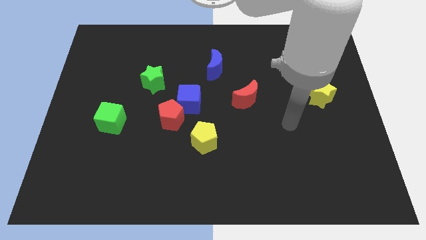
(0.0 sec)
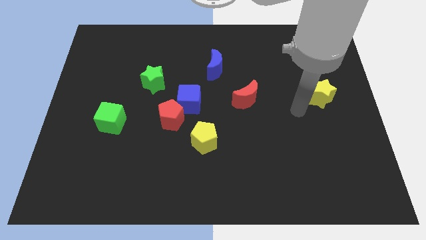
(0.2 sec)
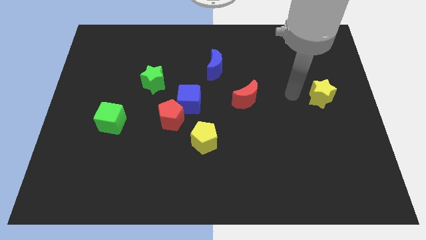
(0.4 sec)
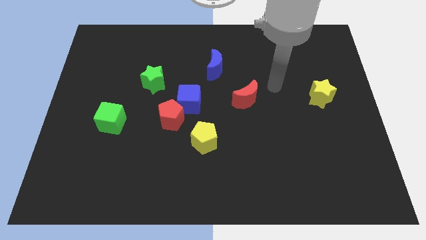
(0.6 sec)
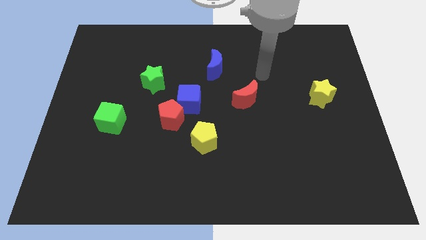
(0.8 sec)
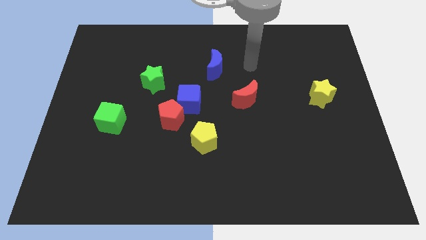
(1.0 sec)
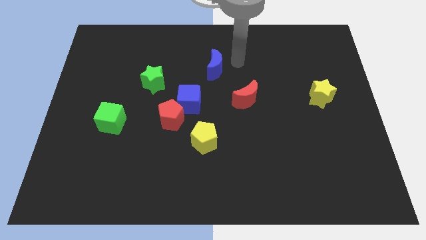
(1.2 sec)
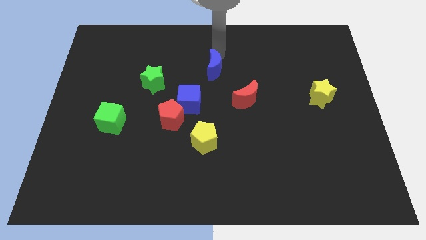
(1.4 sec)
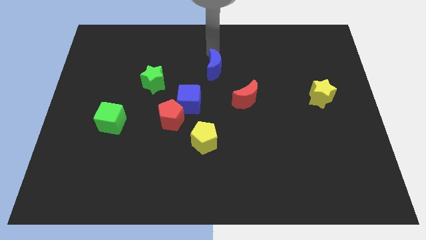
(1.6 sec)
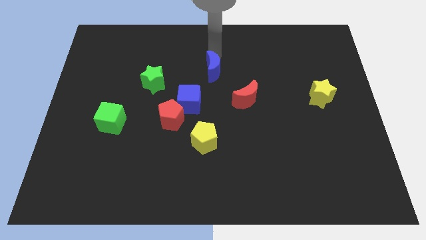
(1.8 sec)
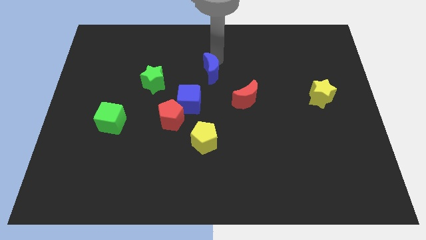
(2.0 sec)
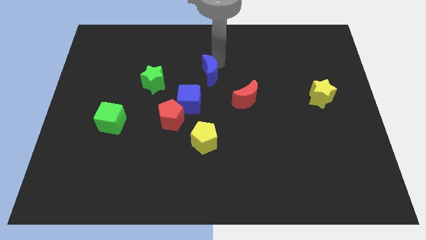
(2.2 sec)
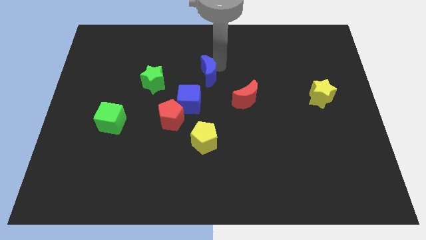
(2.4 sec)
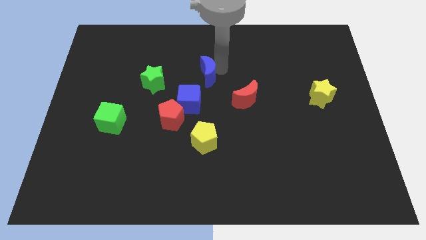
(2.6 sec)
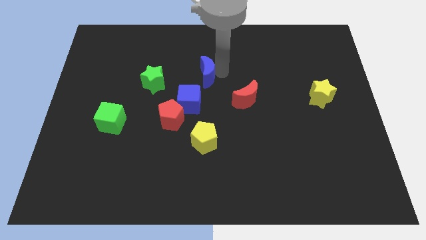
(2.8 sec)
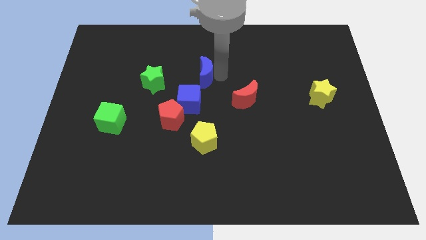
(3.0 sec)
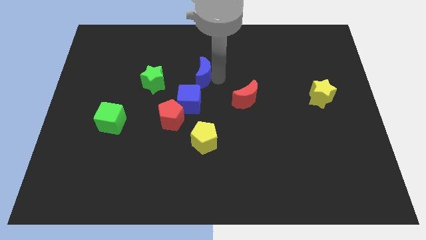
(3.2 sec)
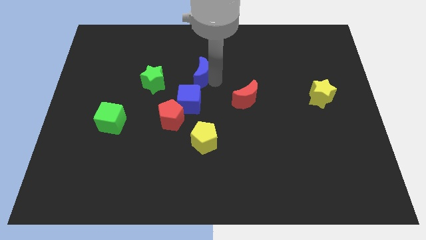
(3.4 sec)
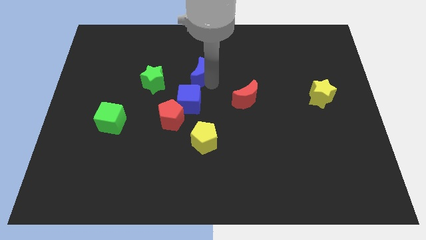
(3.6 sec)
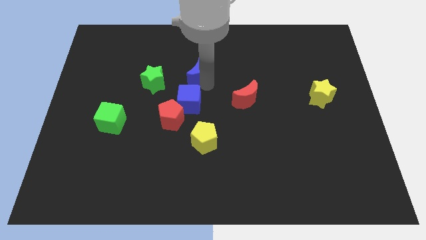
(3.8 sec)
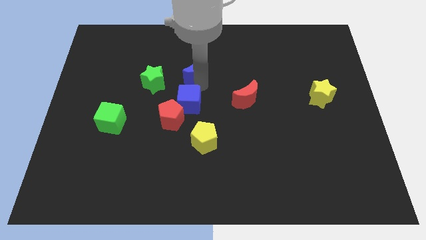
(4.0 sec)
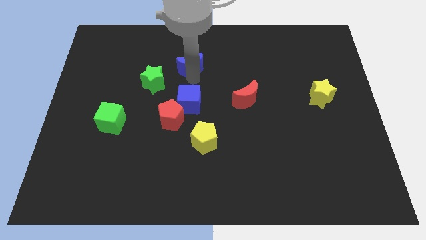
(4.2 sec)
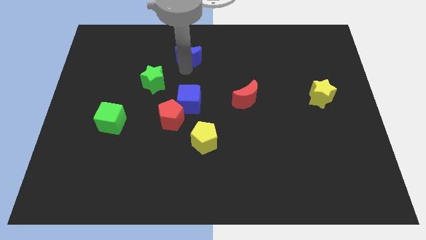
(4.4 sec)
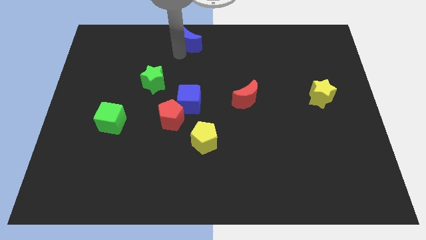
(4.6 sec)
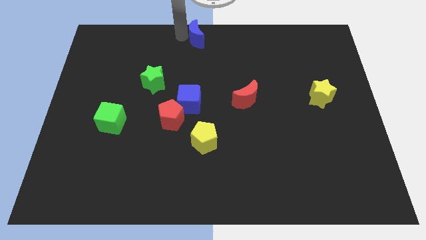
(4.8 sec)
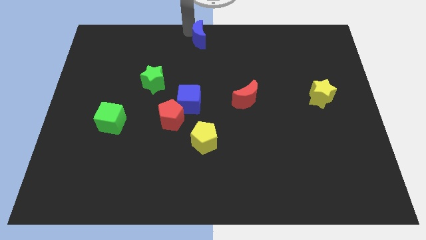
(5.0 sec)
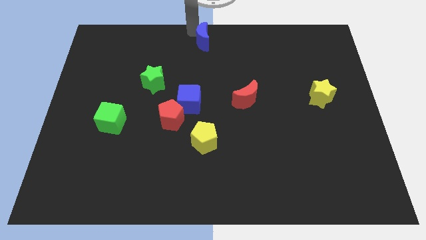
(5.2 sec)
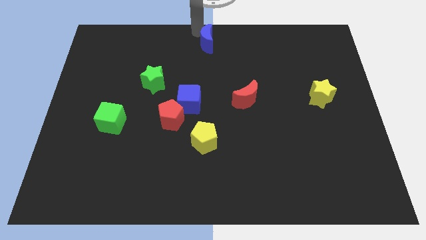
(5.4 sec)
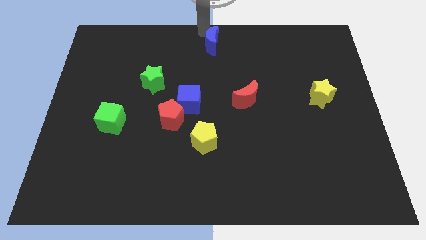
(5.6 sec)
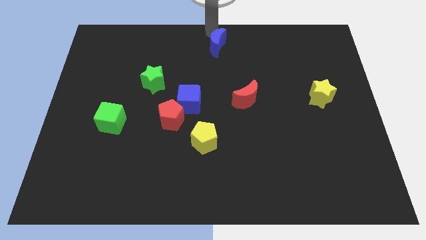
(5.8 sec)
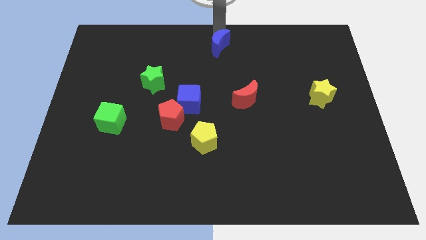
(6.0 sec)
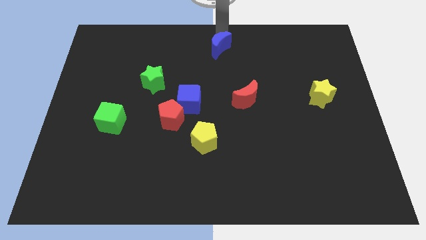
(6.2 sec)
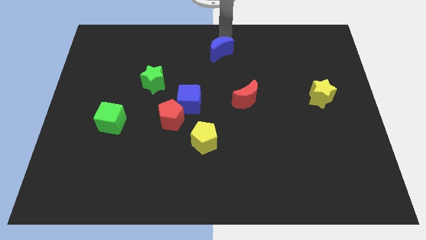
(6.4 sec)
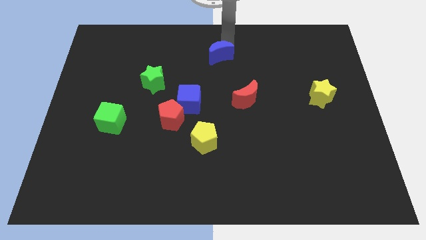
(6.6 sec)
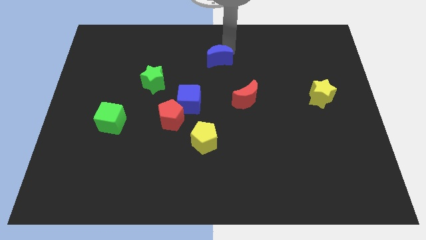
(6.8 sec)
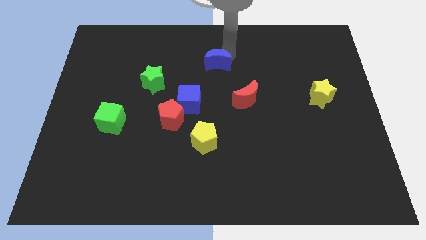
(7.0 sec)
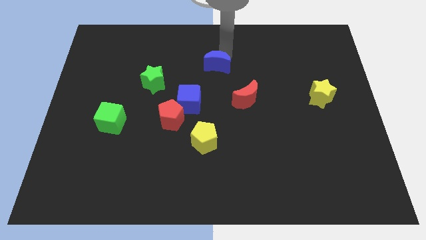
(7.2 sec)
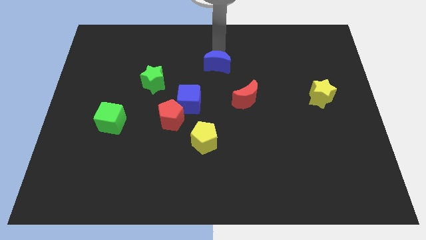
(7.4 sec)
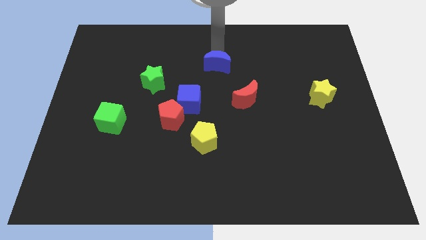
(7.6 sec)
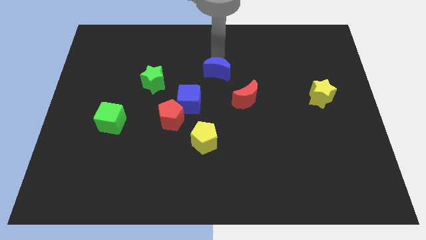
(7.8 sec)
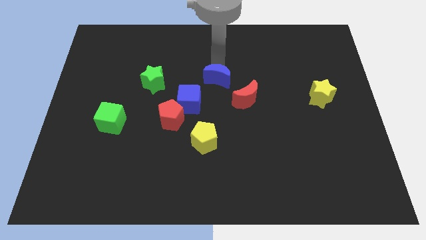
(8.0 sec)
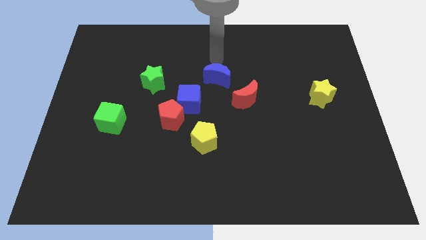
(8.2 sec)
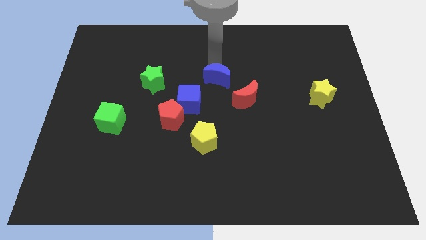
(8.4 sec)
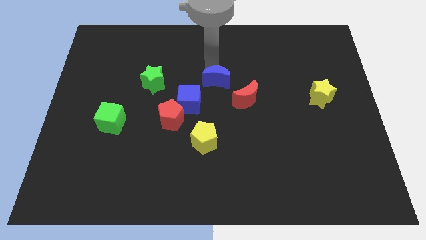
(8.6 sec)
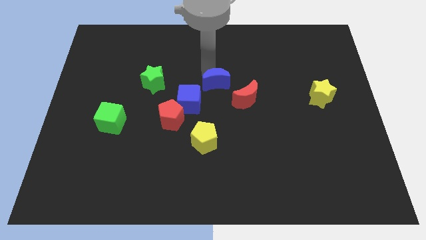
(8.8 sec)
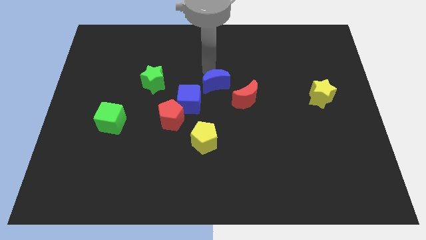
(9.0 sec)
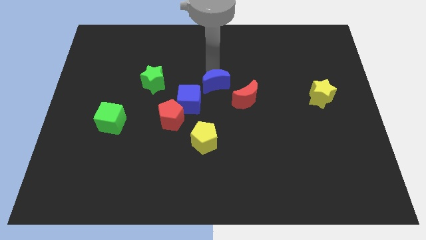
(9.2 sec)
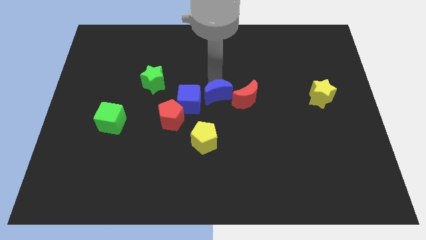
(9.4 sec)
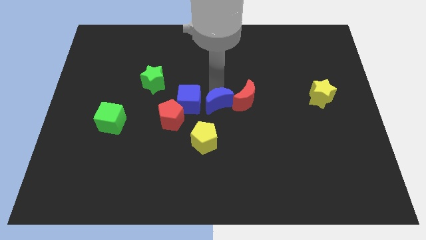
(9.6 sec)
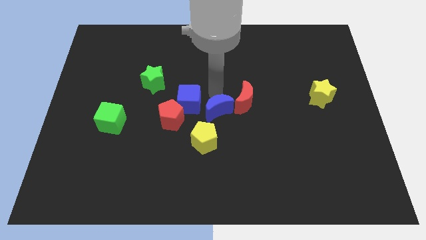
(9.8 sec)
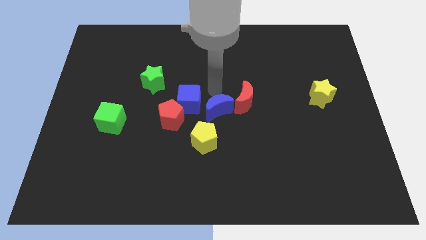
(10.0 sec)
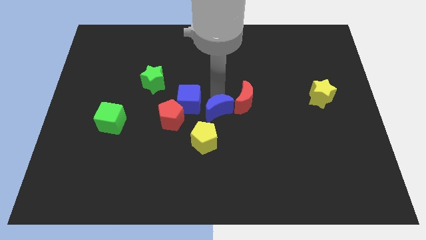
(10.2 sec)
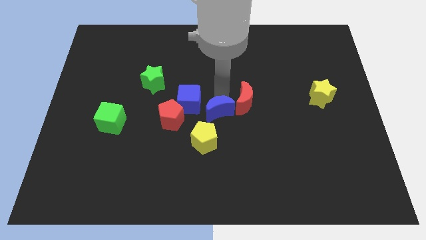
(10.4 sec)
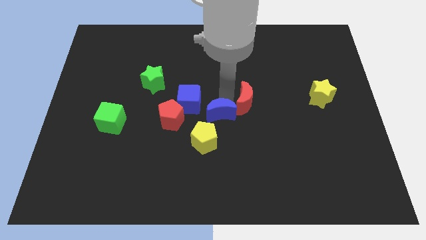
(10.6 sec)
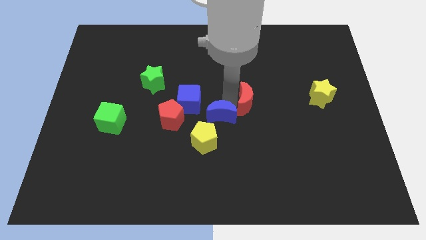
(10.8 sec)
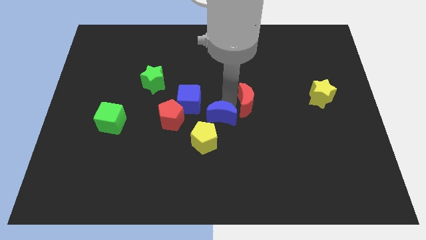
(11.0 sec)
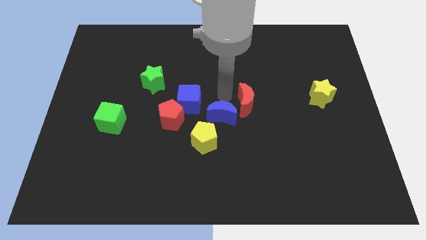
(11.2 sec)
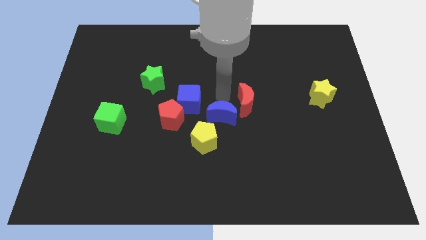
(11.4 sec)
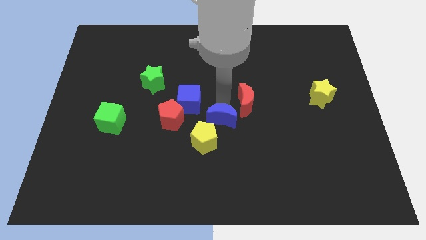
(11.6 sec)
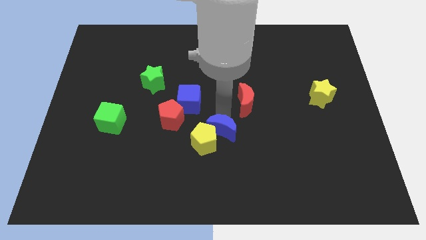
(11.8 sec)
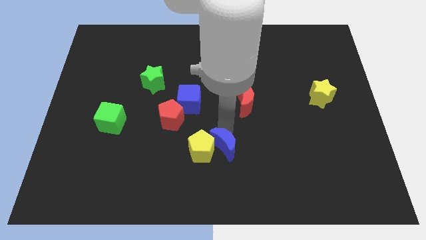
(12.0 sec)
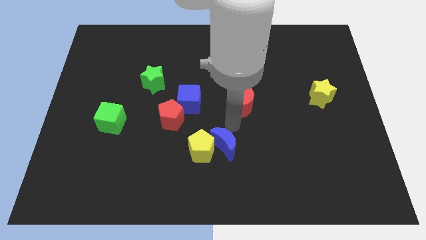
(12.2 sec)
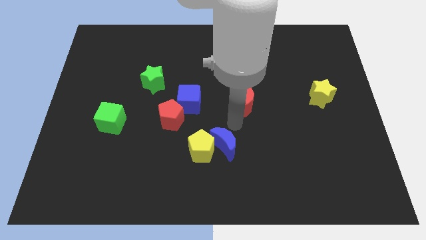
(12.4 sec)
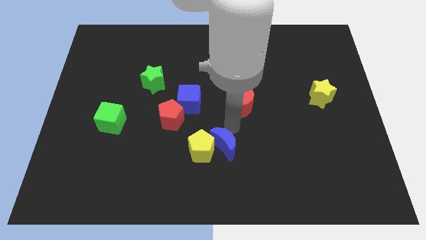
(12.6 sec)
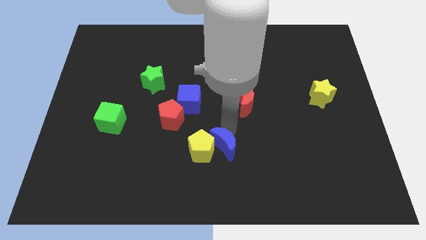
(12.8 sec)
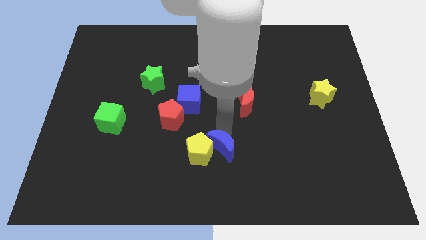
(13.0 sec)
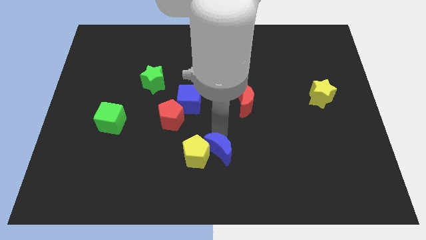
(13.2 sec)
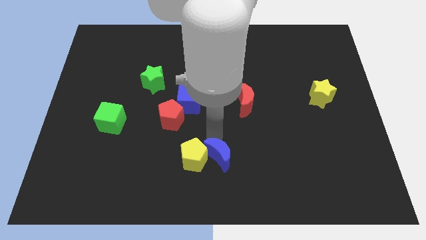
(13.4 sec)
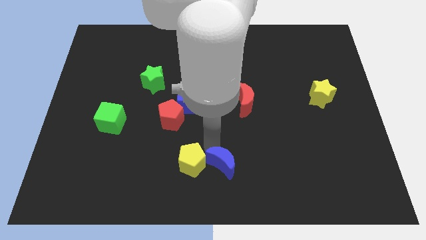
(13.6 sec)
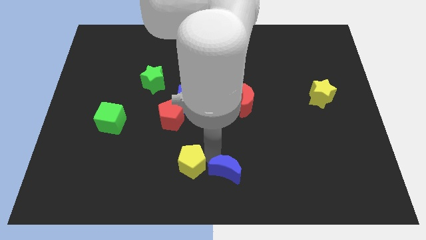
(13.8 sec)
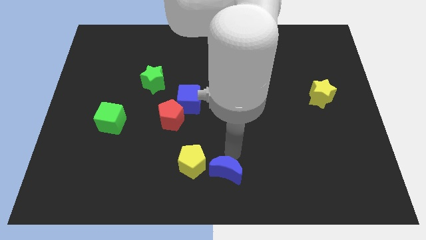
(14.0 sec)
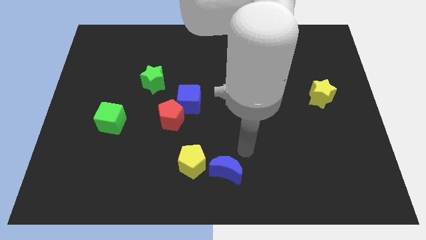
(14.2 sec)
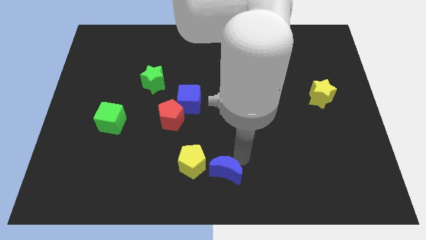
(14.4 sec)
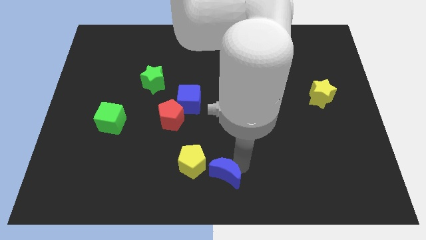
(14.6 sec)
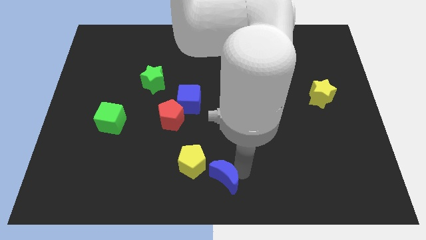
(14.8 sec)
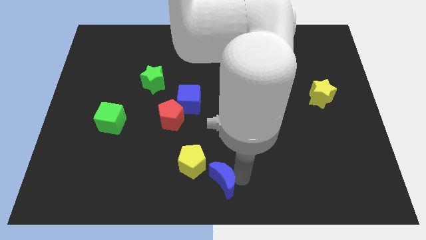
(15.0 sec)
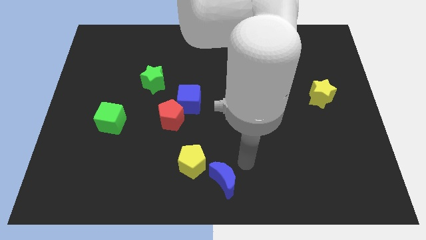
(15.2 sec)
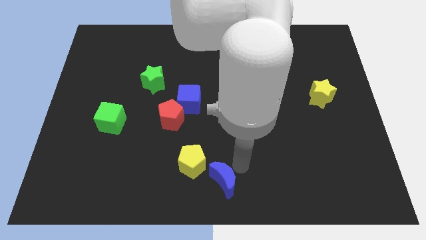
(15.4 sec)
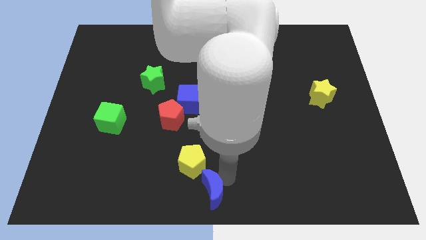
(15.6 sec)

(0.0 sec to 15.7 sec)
push the blue moon below the yellow pentagon
